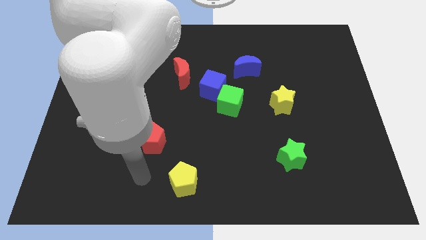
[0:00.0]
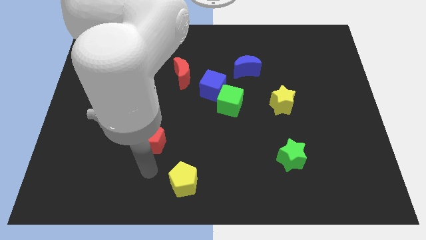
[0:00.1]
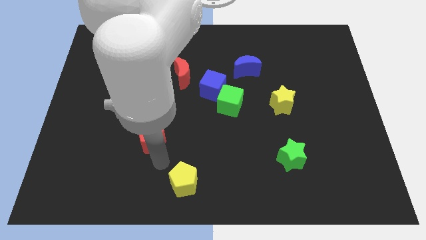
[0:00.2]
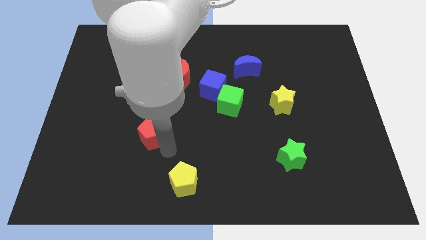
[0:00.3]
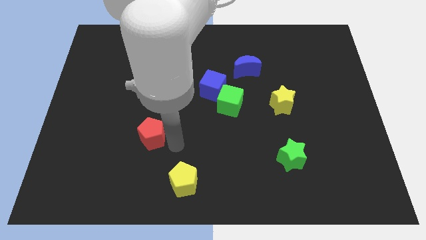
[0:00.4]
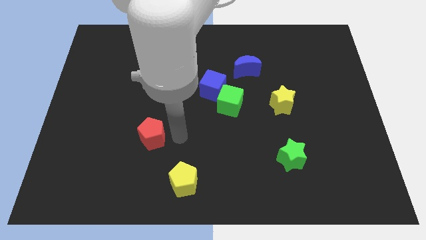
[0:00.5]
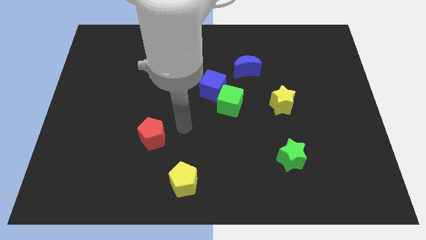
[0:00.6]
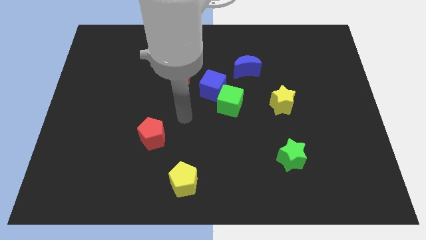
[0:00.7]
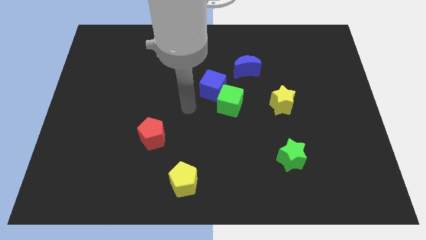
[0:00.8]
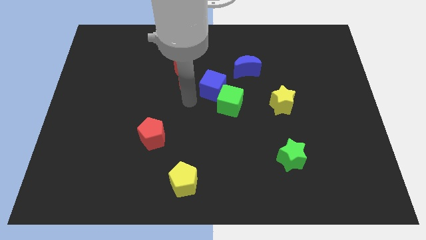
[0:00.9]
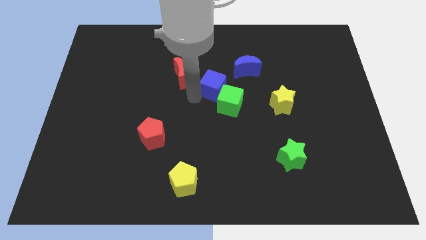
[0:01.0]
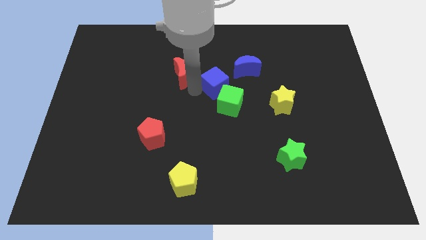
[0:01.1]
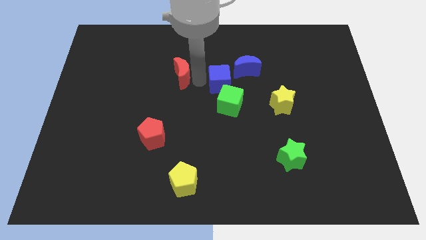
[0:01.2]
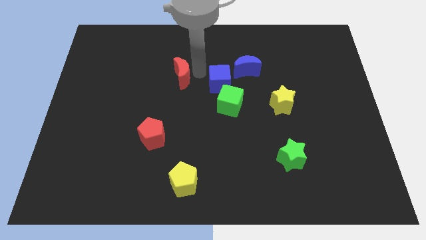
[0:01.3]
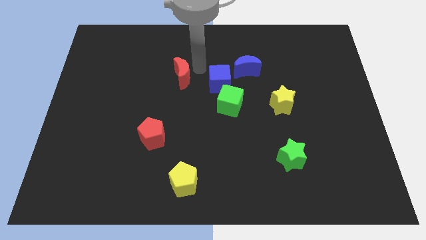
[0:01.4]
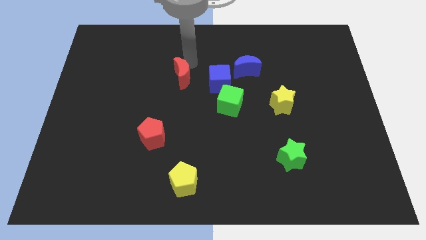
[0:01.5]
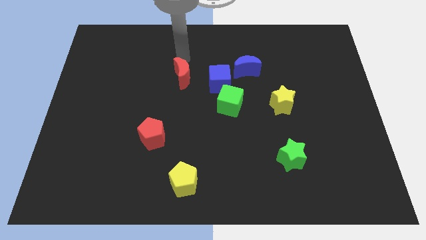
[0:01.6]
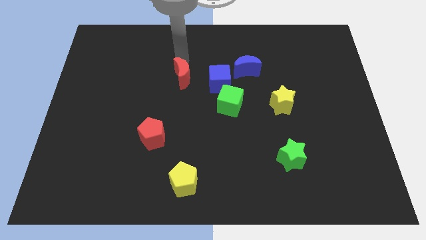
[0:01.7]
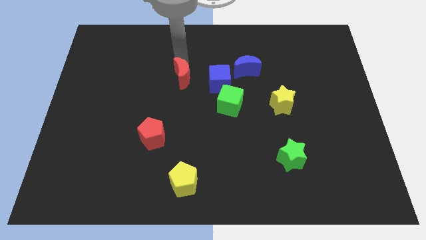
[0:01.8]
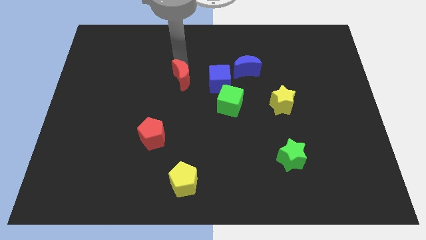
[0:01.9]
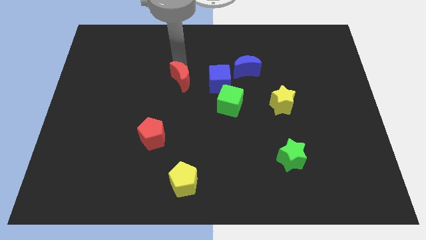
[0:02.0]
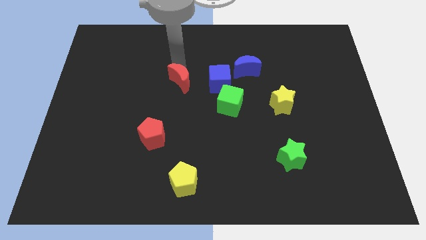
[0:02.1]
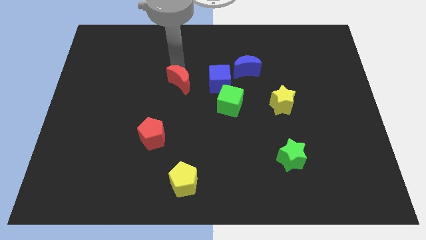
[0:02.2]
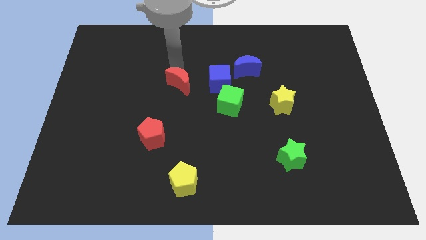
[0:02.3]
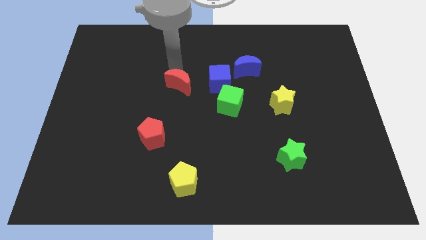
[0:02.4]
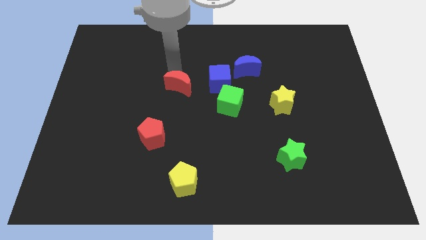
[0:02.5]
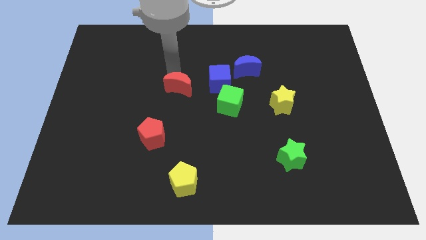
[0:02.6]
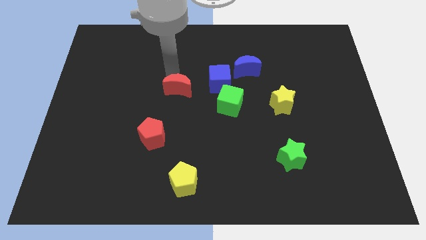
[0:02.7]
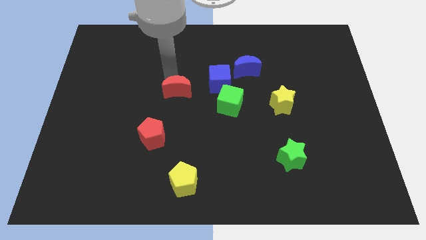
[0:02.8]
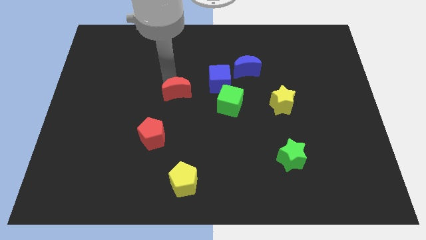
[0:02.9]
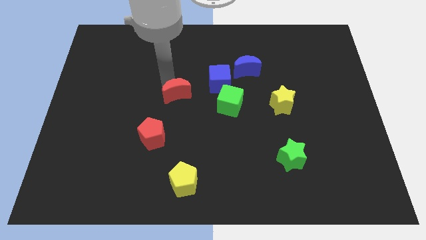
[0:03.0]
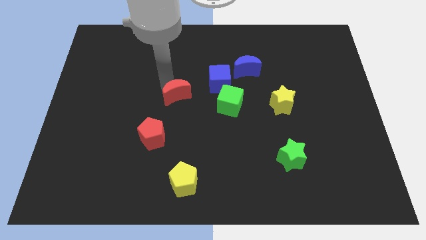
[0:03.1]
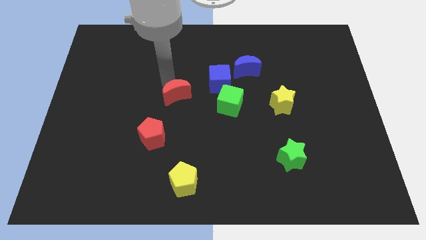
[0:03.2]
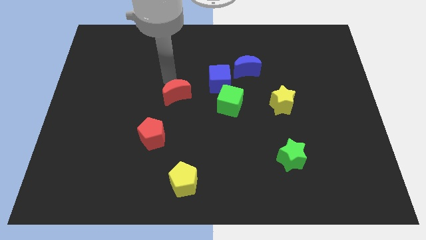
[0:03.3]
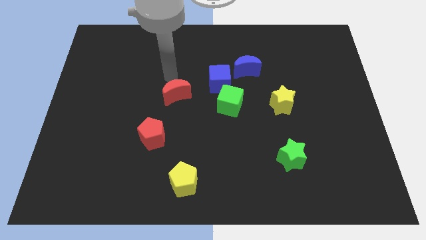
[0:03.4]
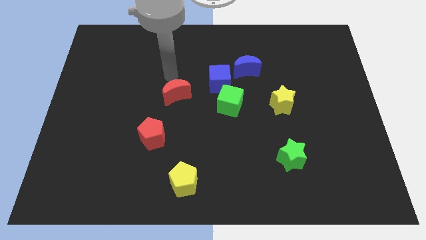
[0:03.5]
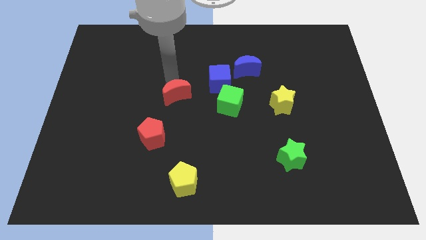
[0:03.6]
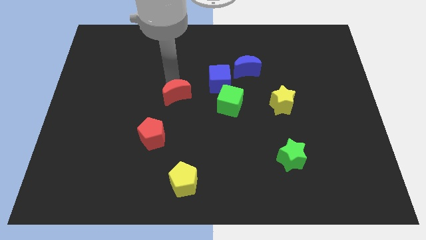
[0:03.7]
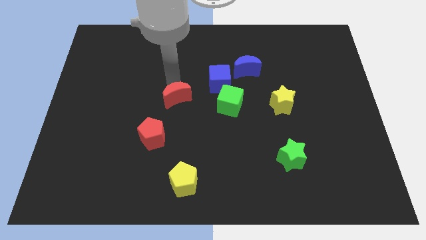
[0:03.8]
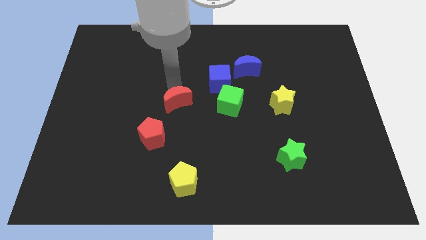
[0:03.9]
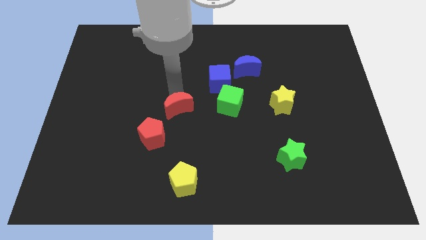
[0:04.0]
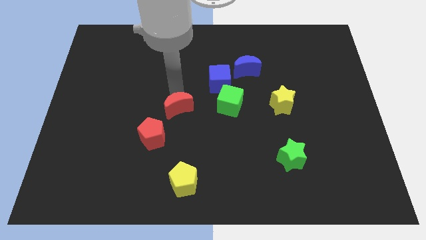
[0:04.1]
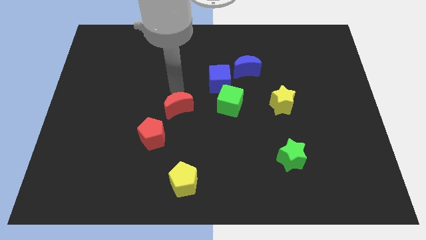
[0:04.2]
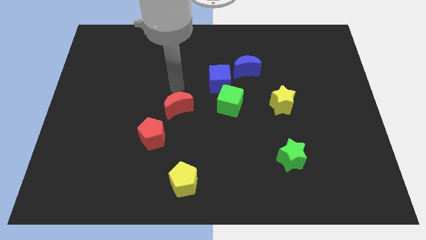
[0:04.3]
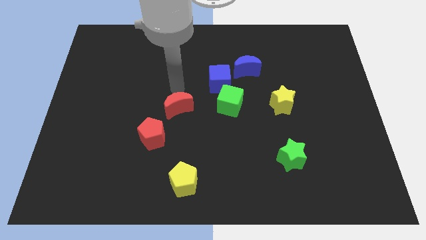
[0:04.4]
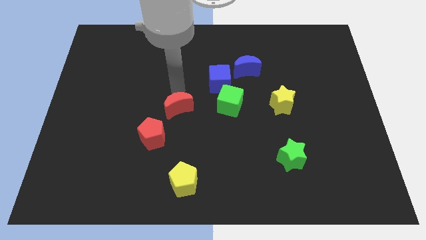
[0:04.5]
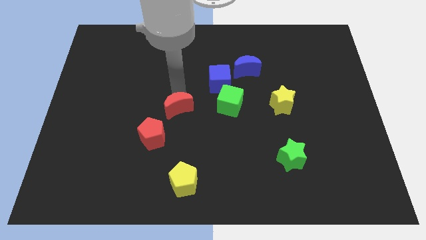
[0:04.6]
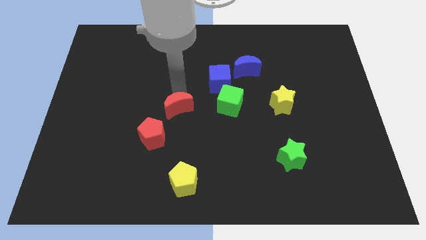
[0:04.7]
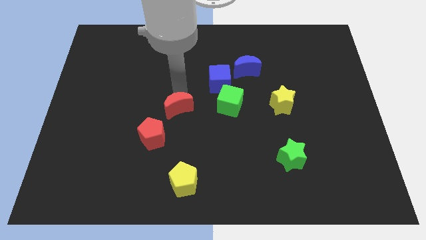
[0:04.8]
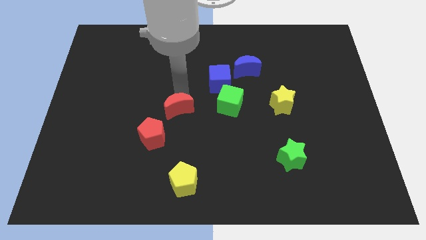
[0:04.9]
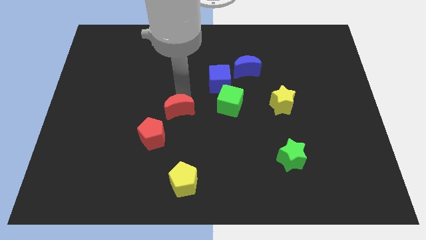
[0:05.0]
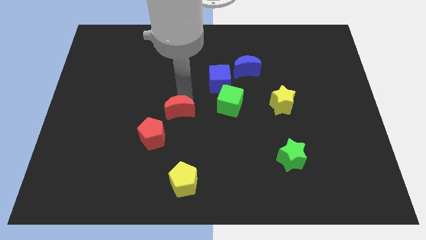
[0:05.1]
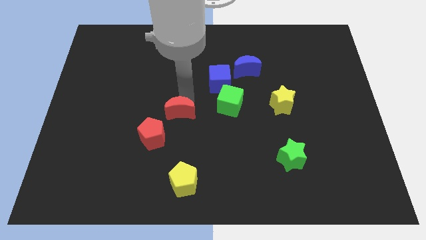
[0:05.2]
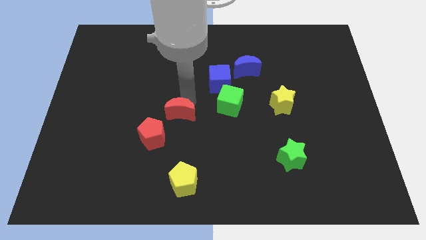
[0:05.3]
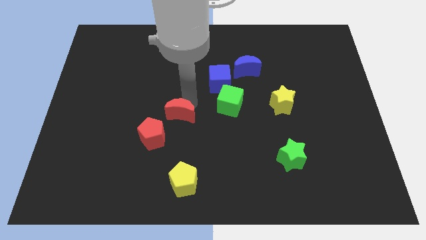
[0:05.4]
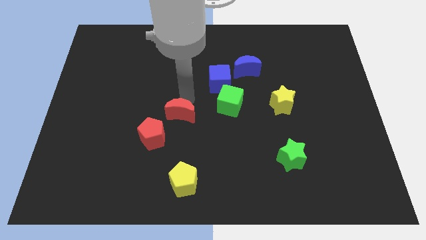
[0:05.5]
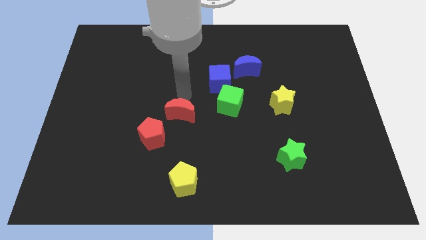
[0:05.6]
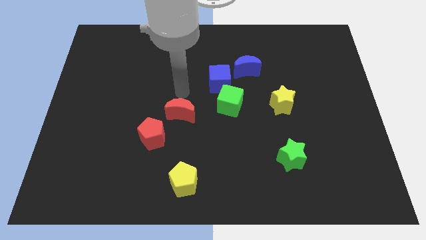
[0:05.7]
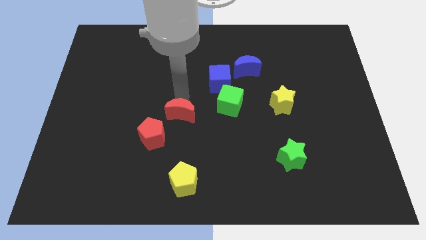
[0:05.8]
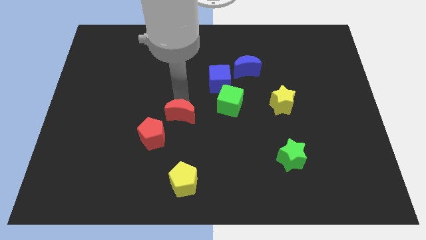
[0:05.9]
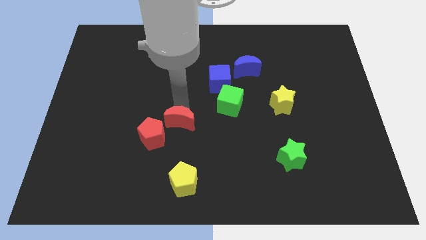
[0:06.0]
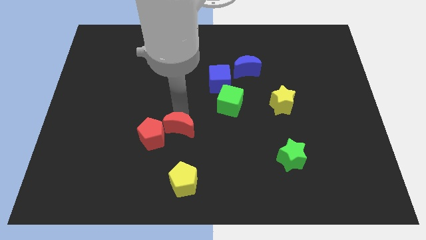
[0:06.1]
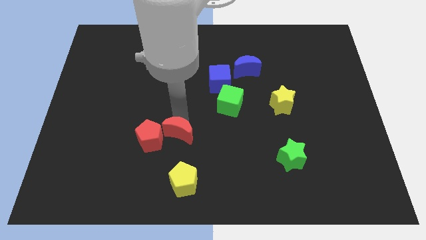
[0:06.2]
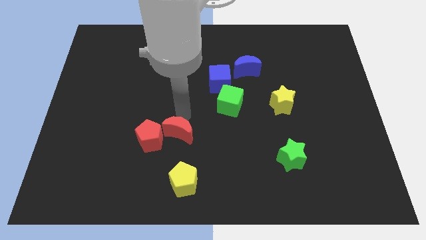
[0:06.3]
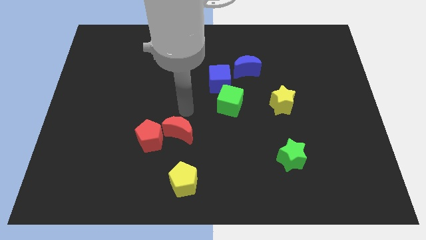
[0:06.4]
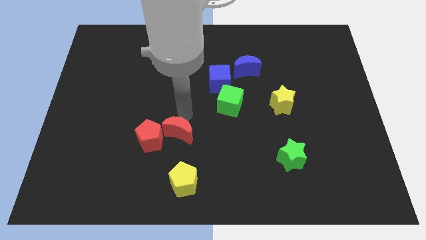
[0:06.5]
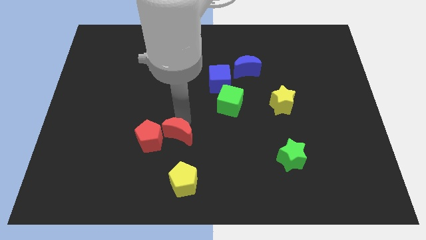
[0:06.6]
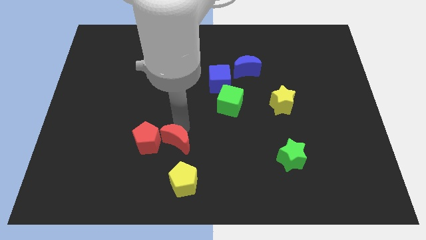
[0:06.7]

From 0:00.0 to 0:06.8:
push the red moon to the bottom right side of the red pentagon

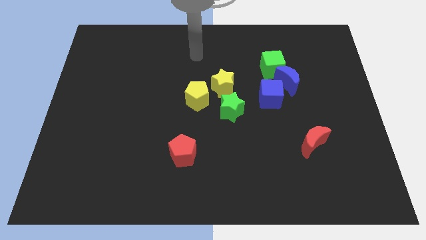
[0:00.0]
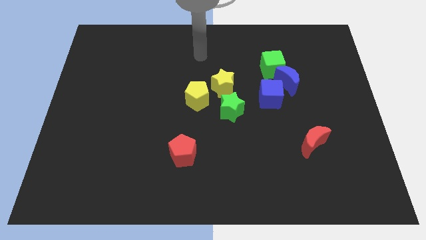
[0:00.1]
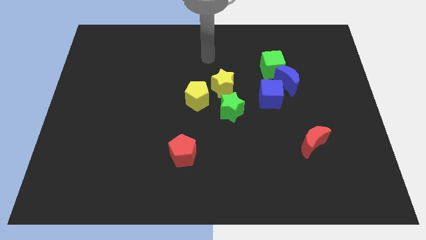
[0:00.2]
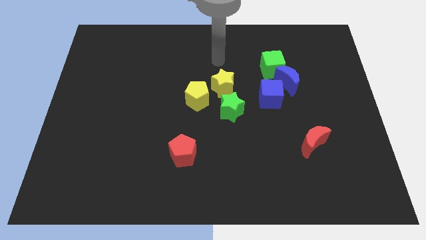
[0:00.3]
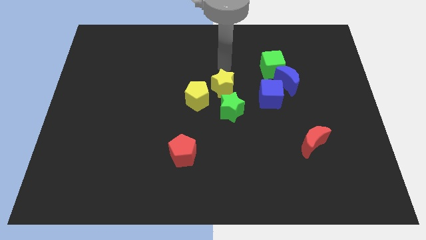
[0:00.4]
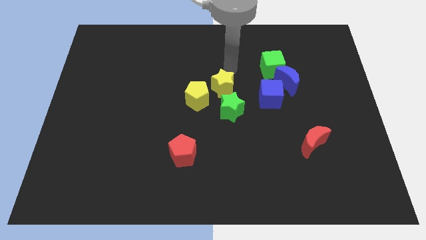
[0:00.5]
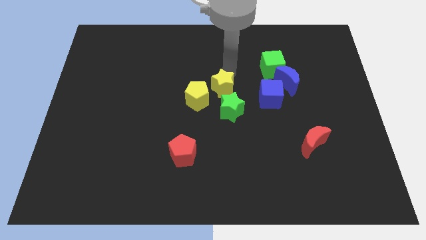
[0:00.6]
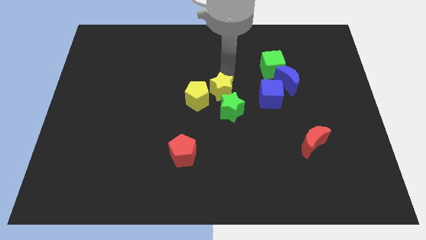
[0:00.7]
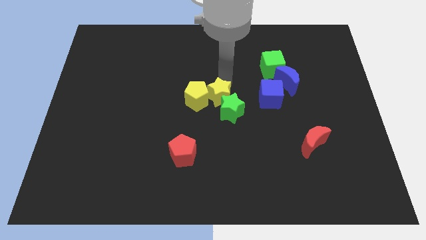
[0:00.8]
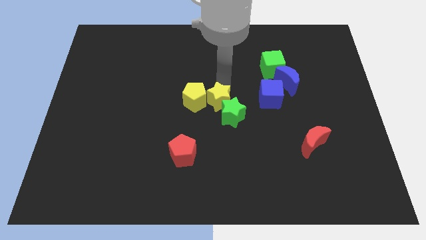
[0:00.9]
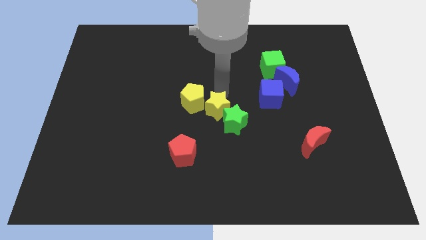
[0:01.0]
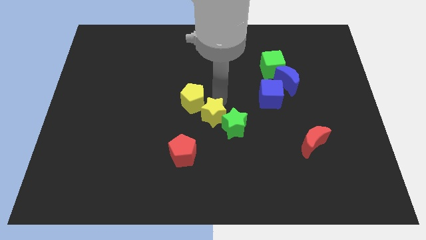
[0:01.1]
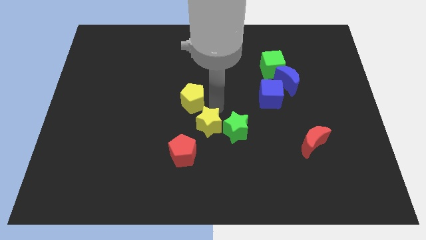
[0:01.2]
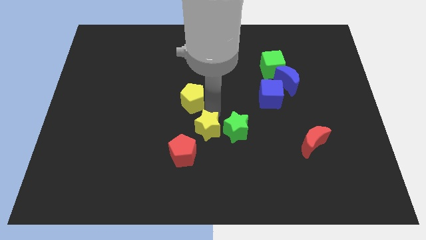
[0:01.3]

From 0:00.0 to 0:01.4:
push the yellow star to the bottom left of the green star
